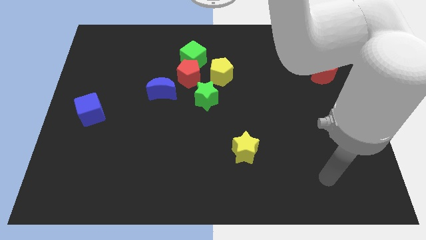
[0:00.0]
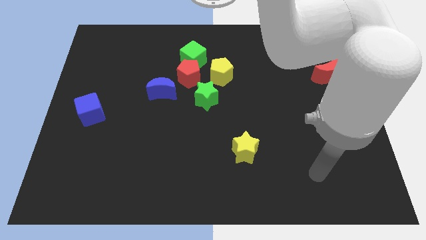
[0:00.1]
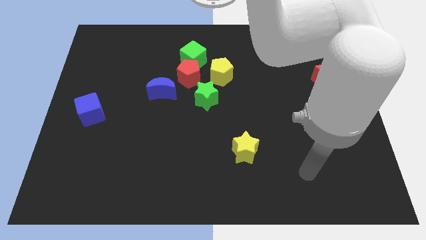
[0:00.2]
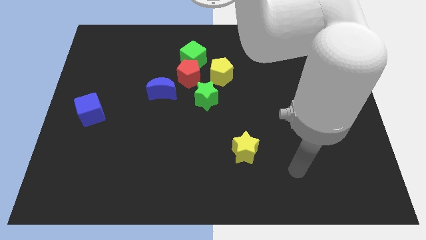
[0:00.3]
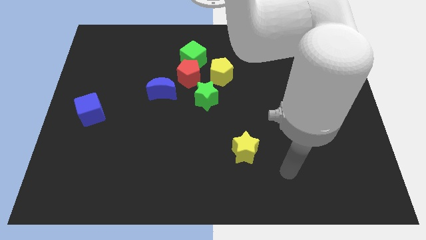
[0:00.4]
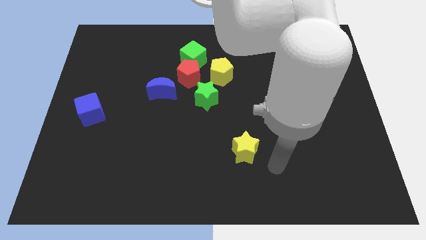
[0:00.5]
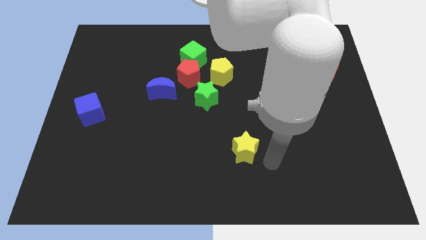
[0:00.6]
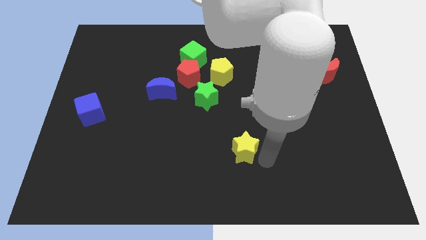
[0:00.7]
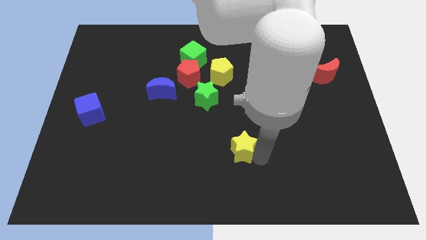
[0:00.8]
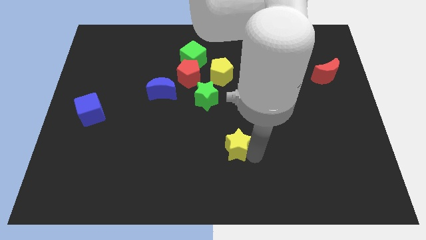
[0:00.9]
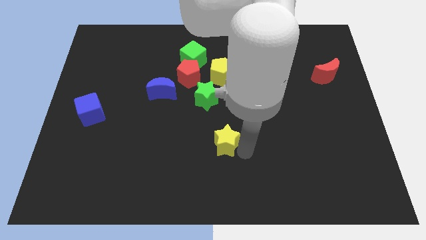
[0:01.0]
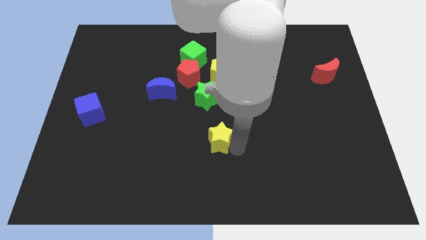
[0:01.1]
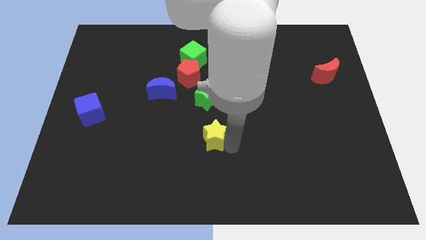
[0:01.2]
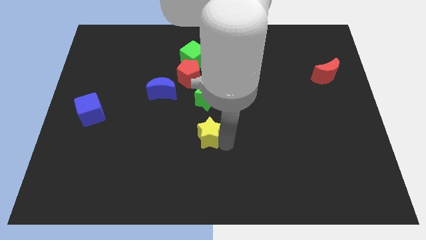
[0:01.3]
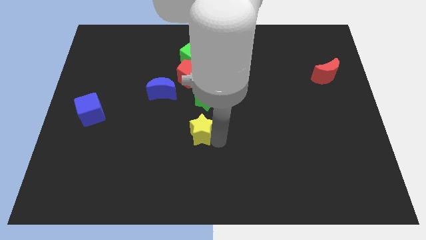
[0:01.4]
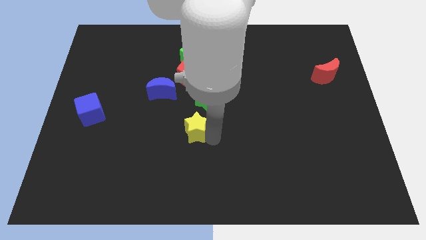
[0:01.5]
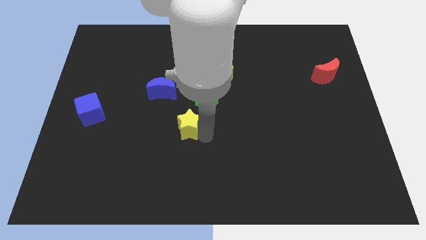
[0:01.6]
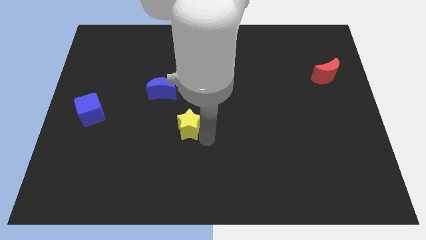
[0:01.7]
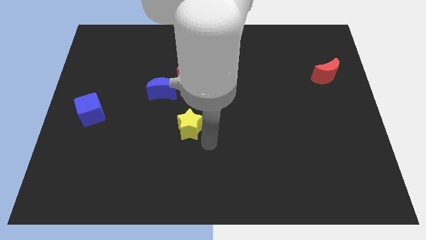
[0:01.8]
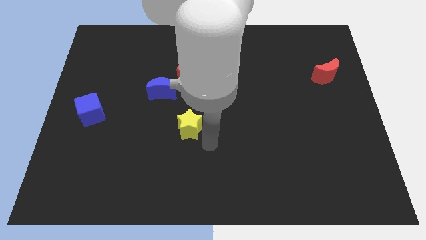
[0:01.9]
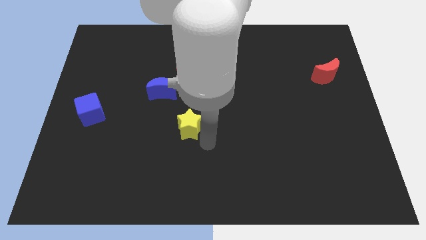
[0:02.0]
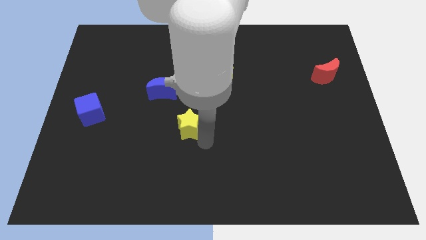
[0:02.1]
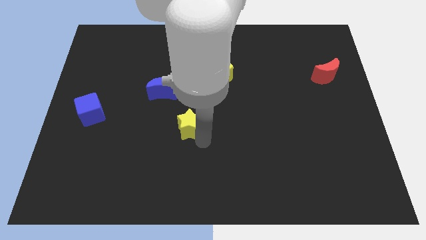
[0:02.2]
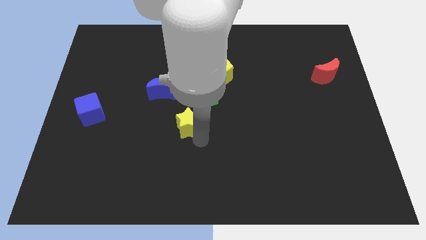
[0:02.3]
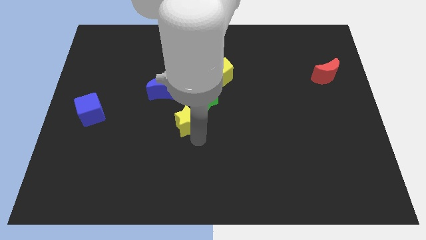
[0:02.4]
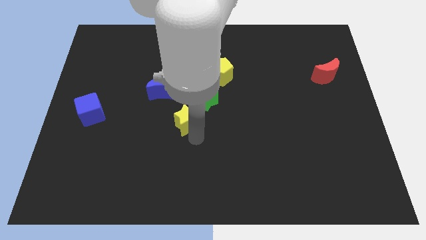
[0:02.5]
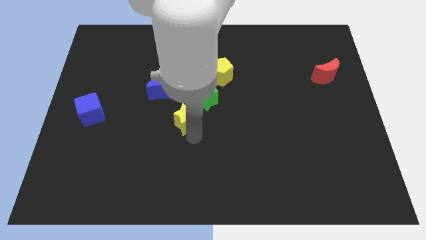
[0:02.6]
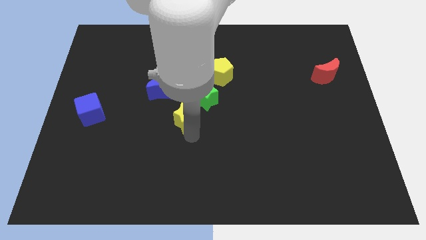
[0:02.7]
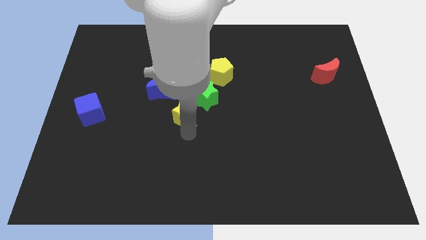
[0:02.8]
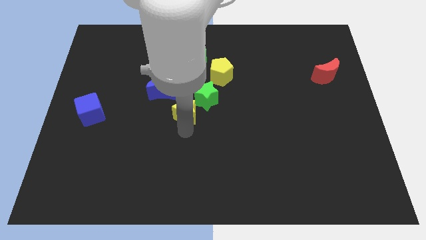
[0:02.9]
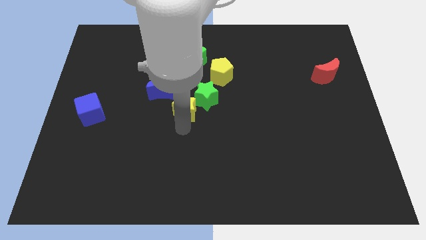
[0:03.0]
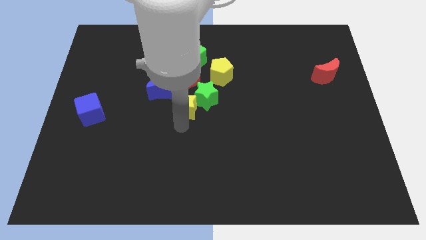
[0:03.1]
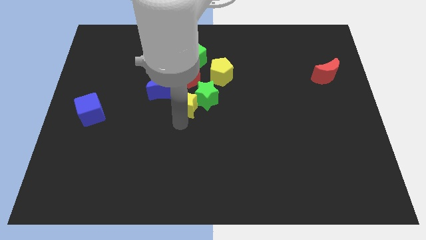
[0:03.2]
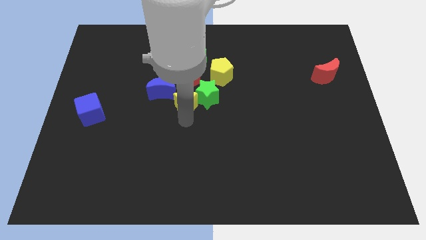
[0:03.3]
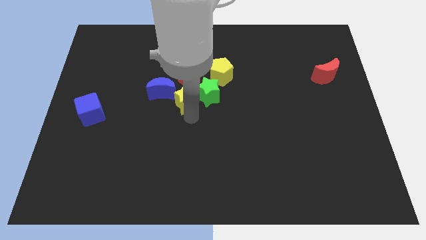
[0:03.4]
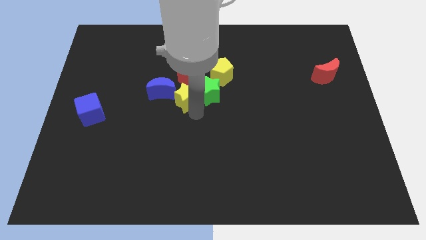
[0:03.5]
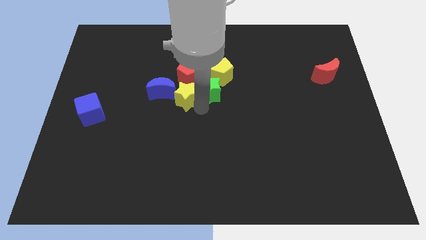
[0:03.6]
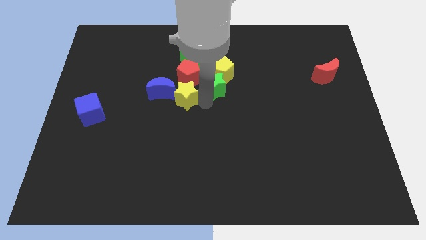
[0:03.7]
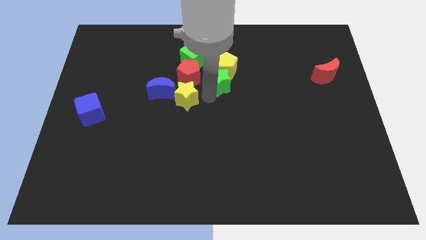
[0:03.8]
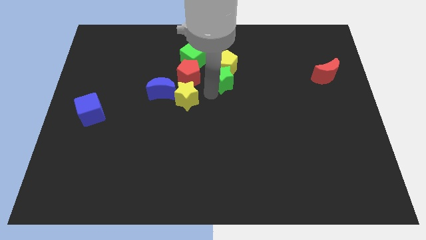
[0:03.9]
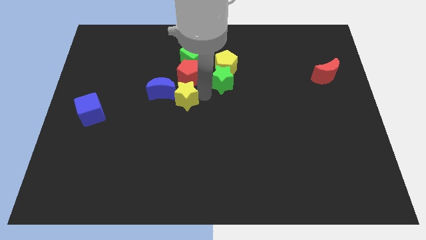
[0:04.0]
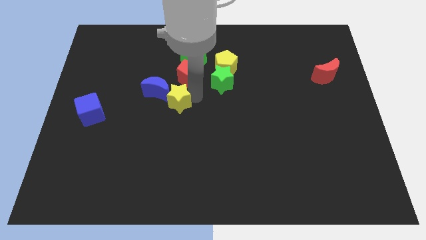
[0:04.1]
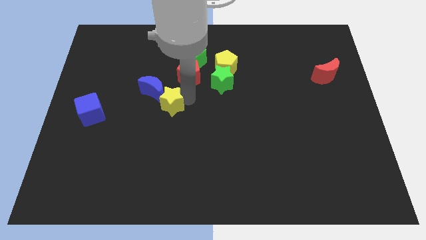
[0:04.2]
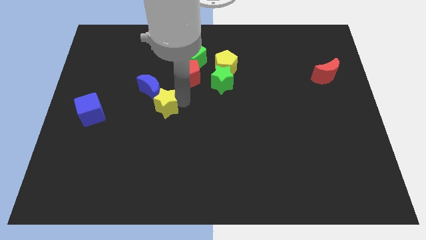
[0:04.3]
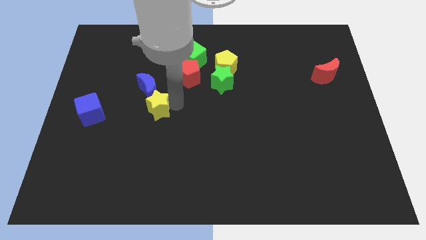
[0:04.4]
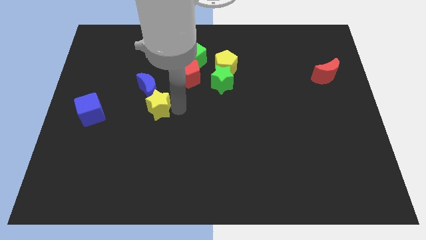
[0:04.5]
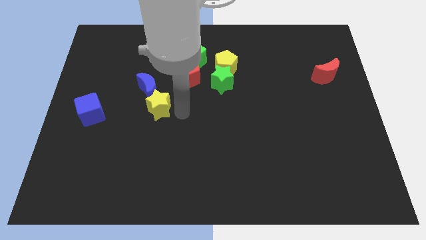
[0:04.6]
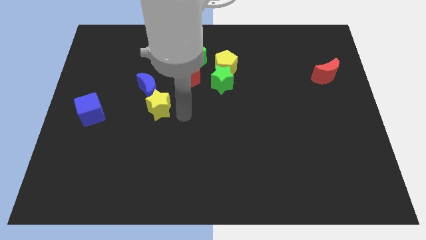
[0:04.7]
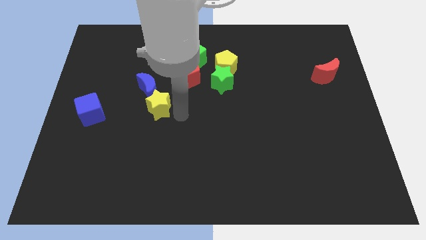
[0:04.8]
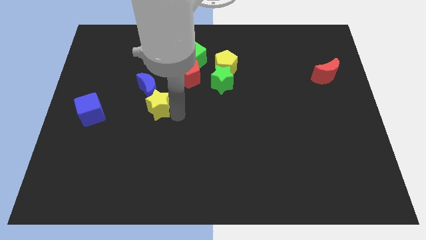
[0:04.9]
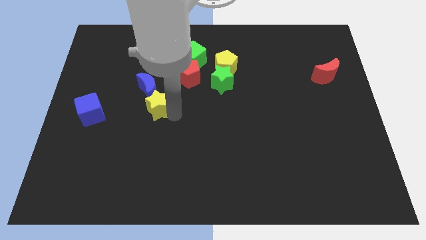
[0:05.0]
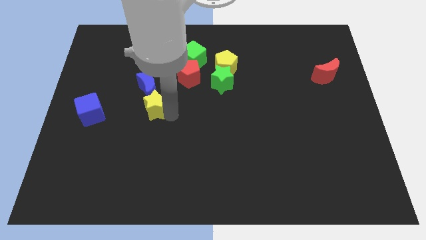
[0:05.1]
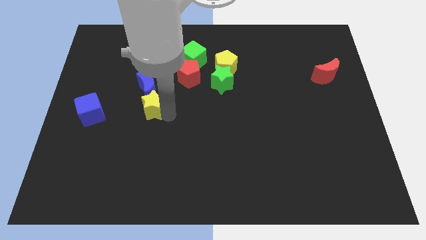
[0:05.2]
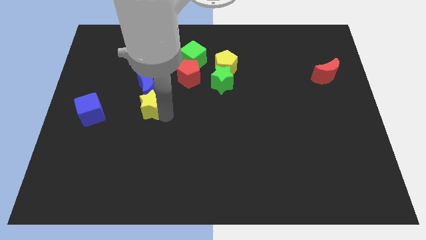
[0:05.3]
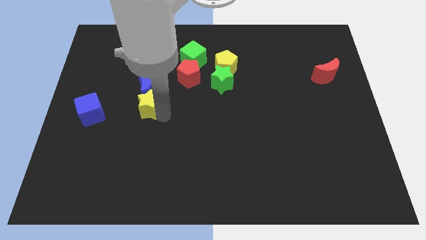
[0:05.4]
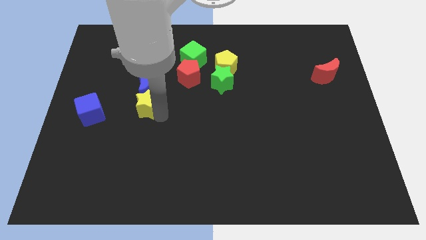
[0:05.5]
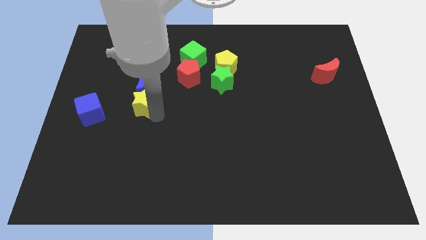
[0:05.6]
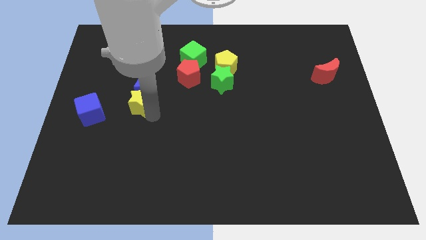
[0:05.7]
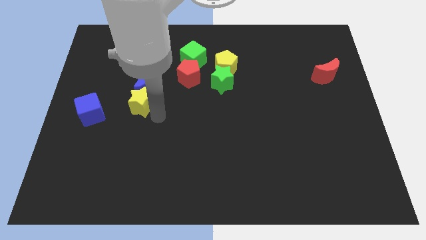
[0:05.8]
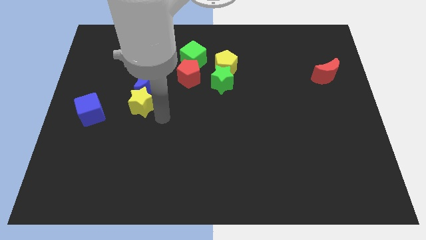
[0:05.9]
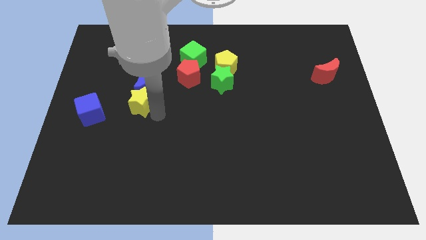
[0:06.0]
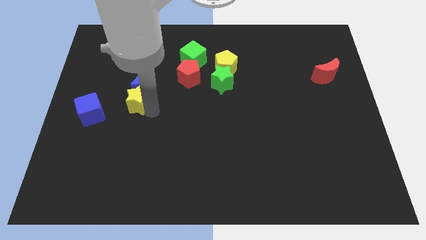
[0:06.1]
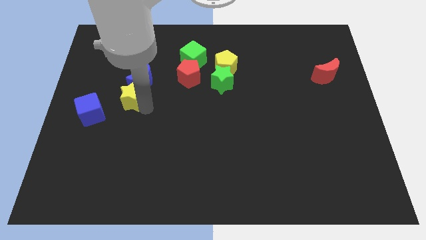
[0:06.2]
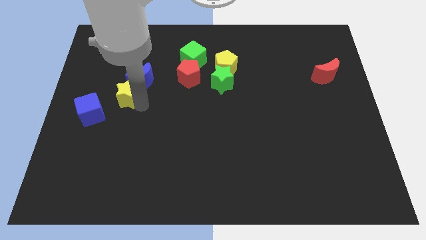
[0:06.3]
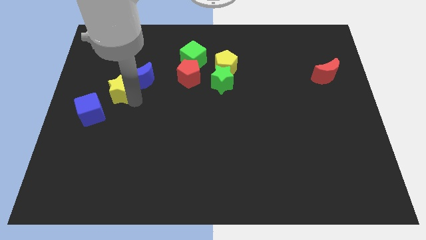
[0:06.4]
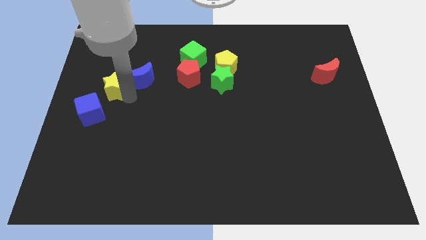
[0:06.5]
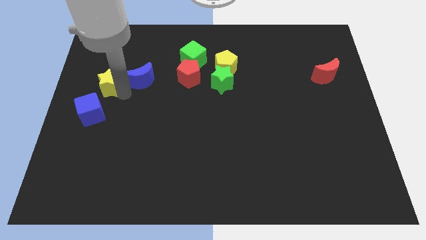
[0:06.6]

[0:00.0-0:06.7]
put the yellow star to the center left
